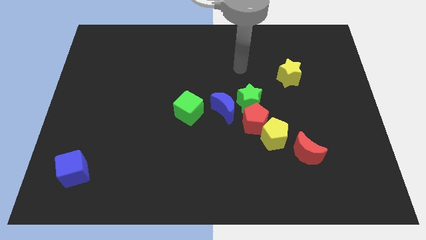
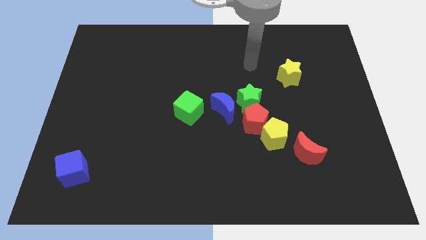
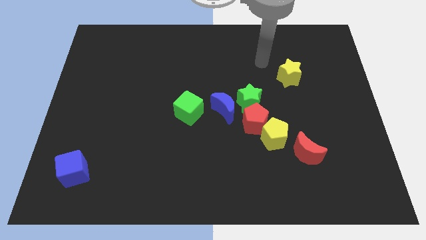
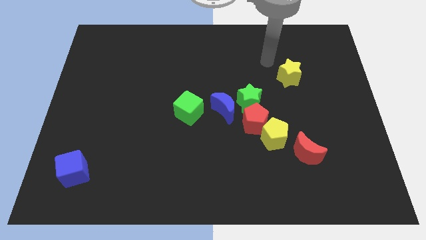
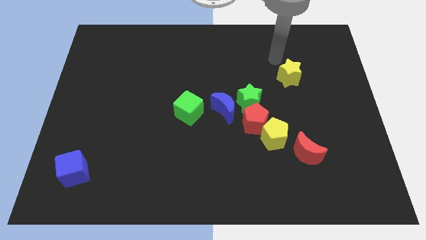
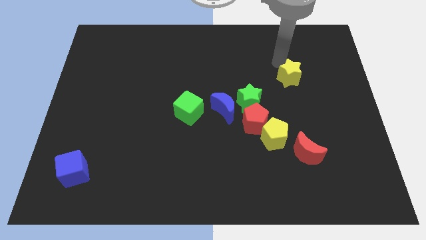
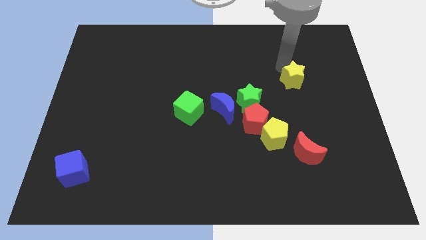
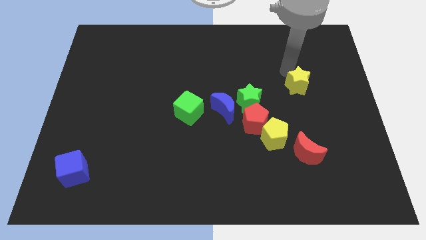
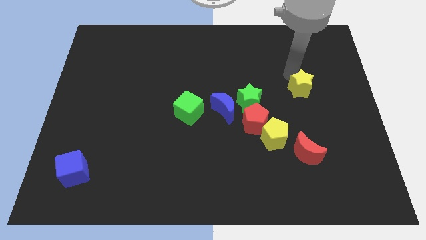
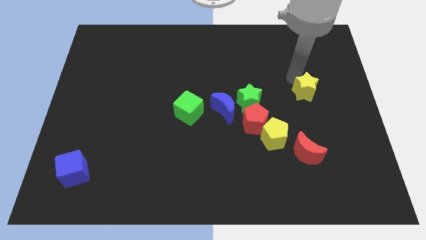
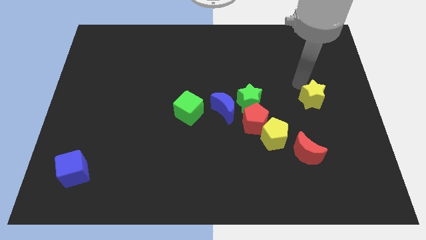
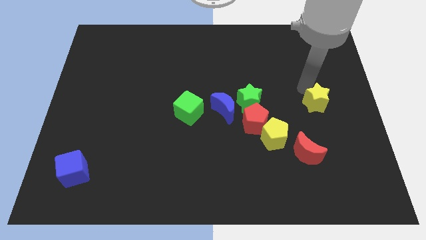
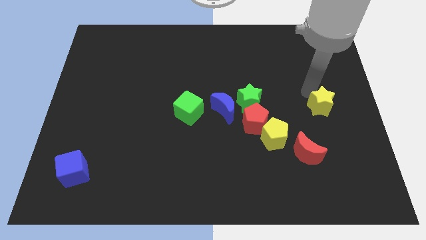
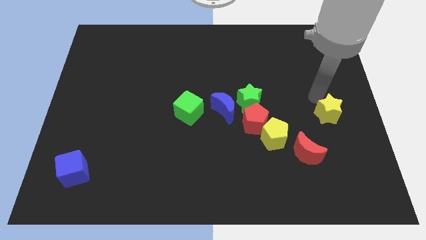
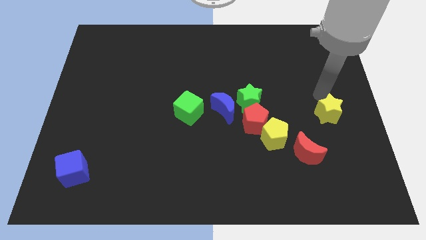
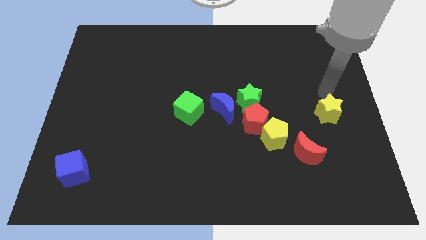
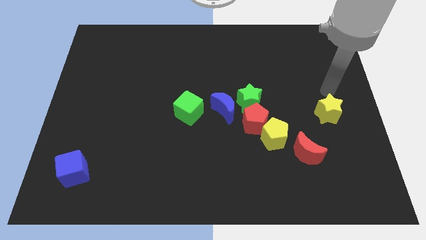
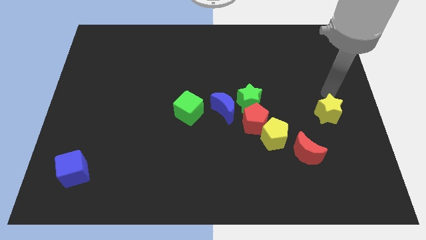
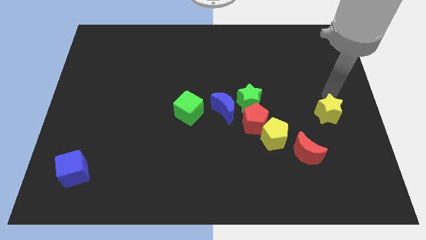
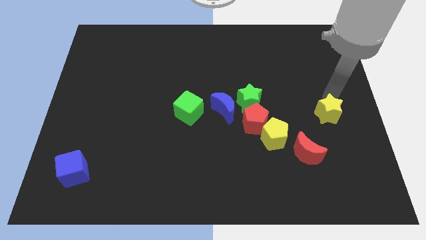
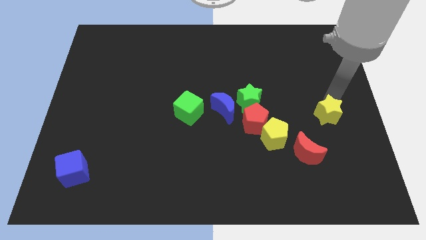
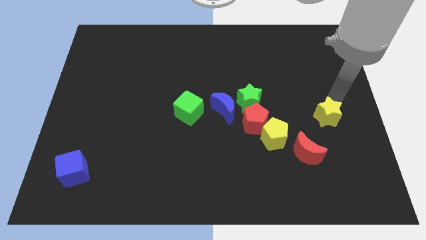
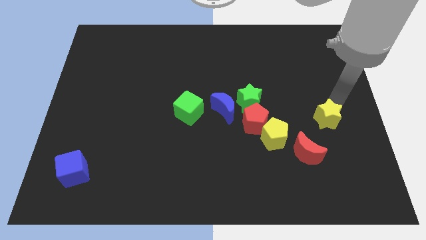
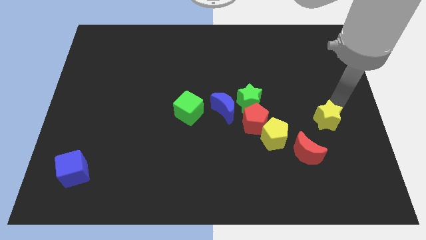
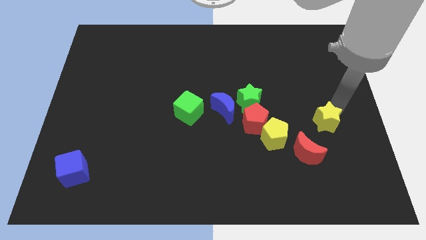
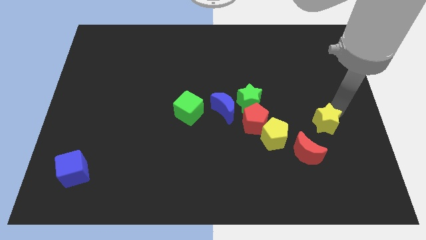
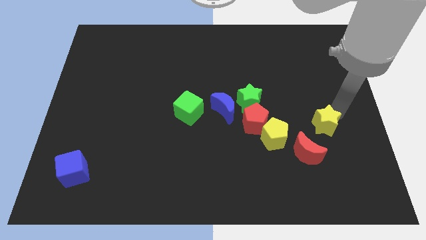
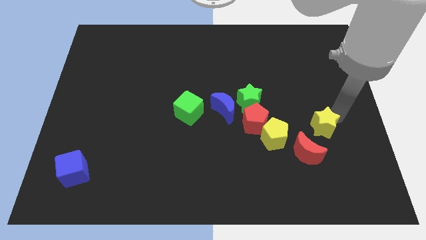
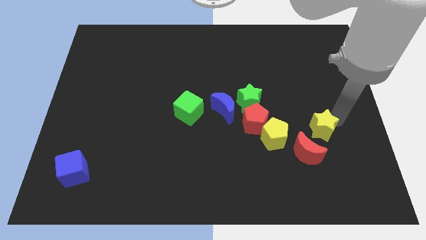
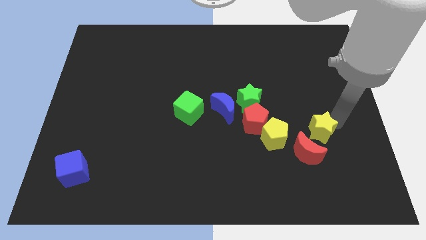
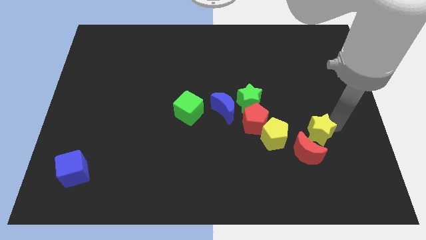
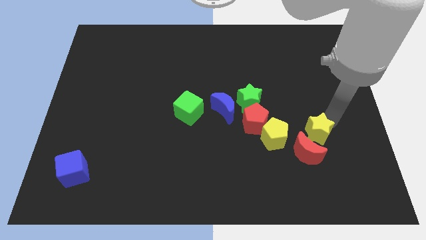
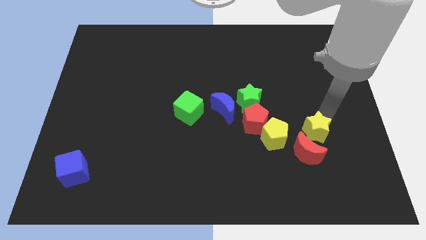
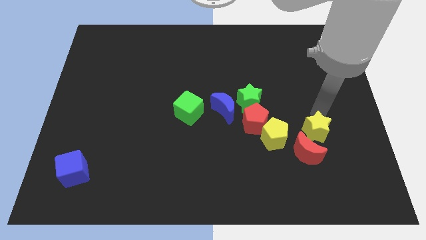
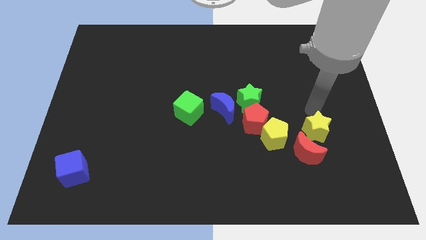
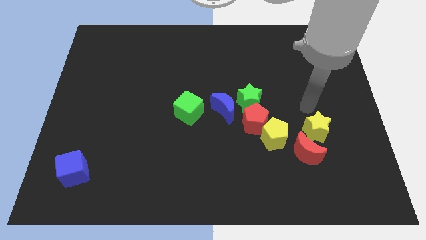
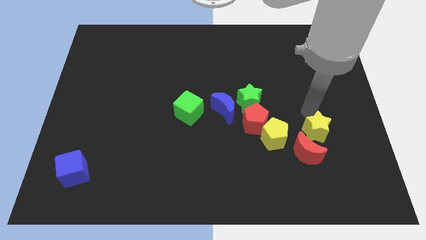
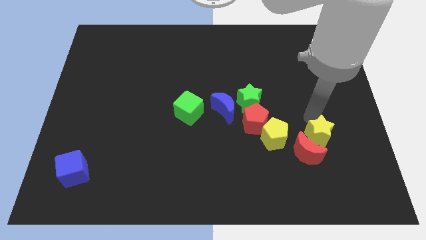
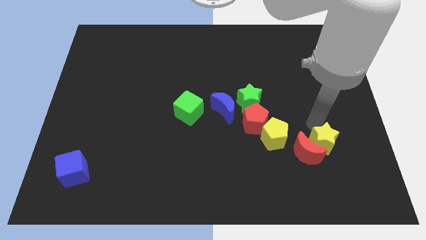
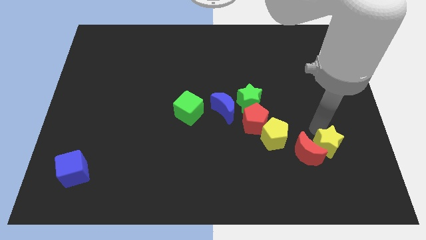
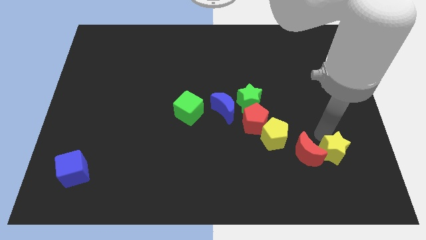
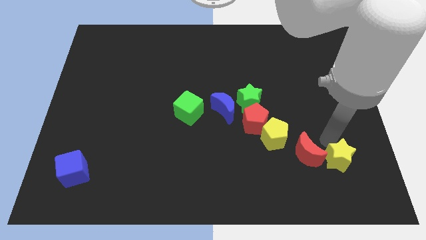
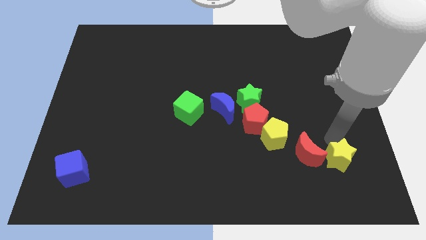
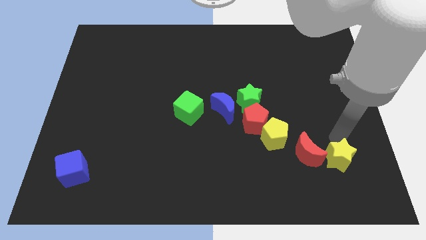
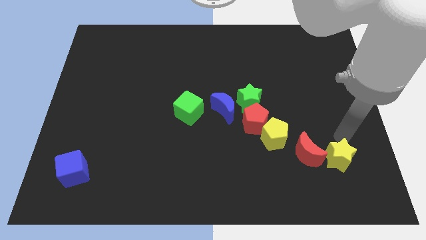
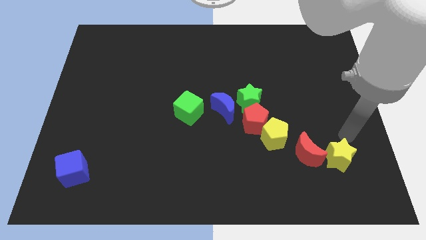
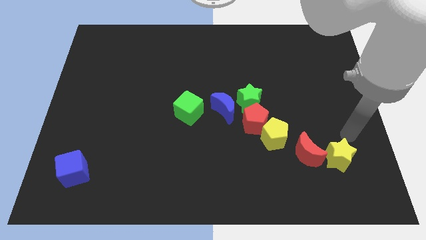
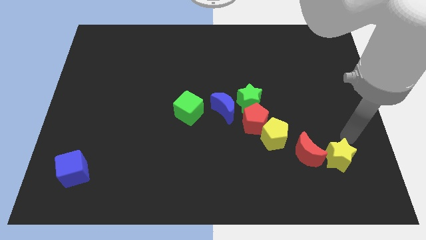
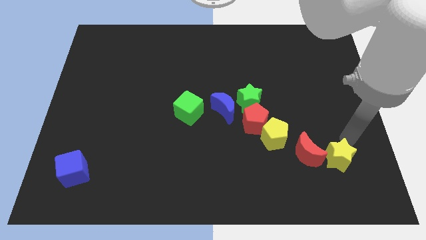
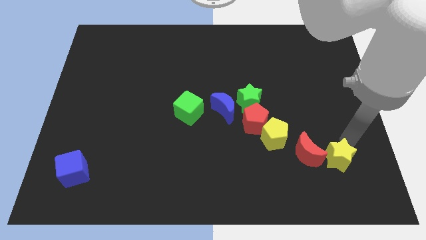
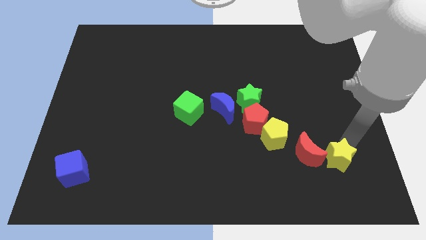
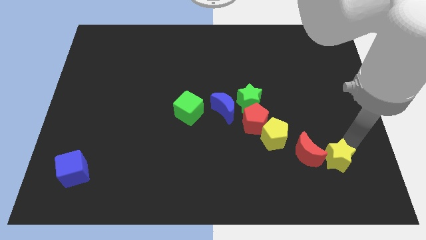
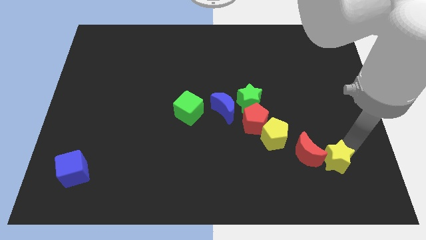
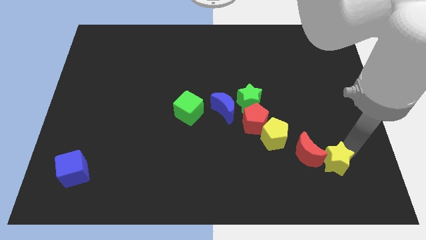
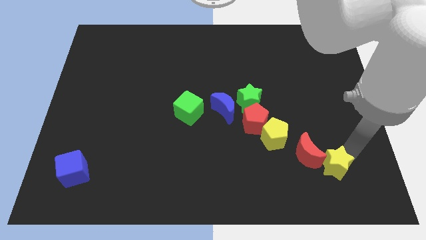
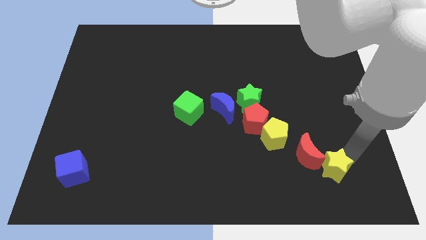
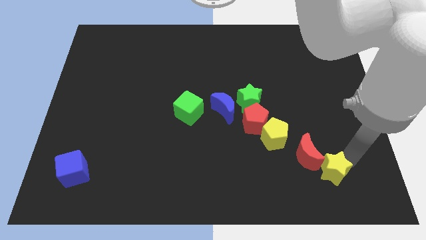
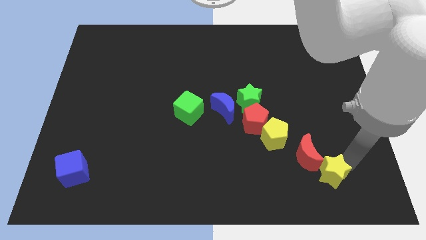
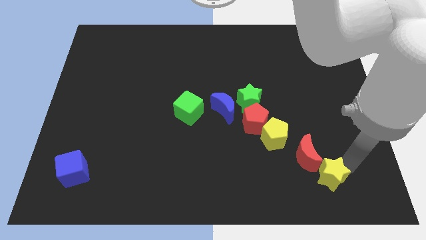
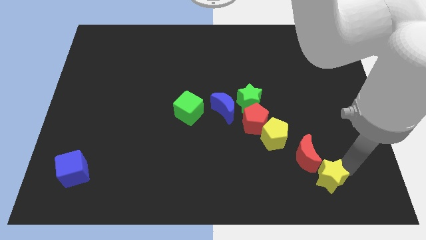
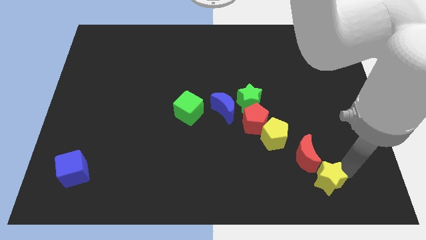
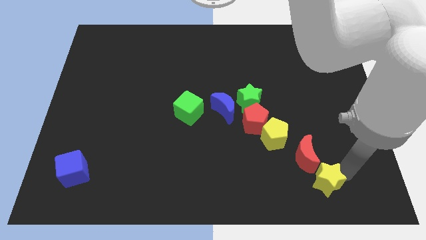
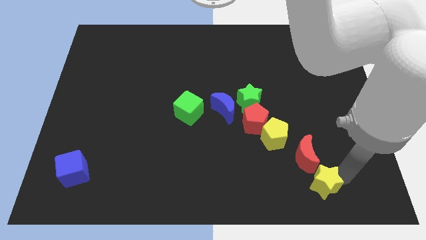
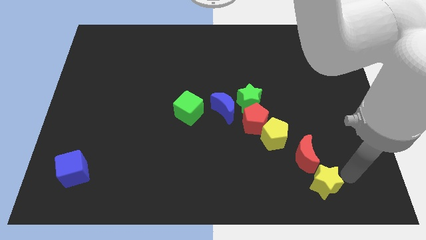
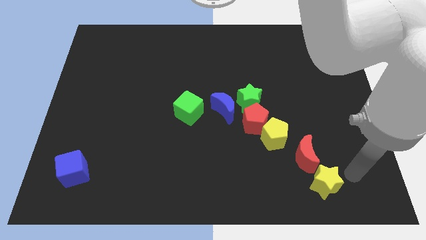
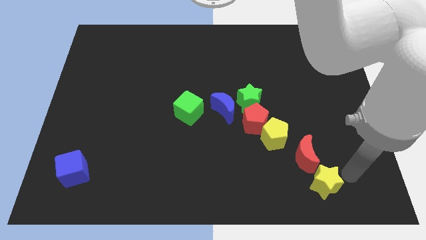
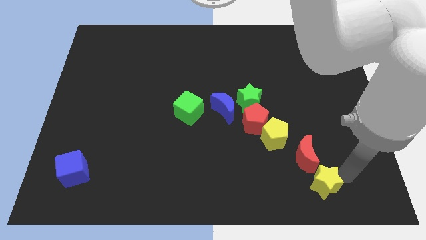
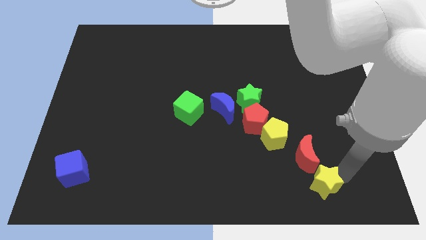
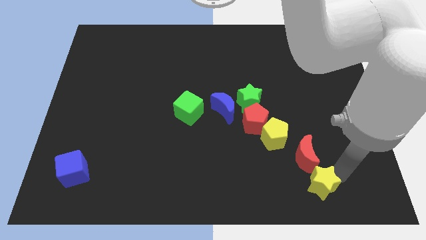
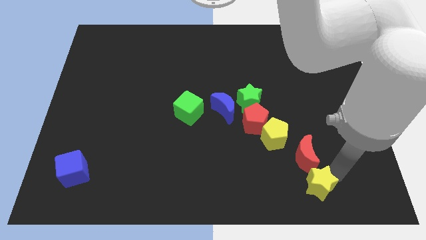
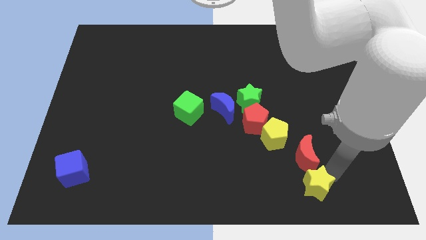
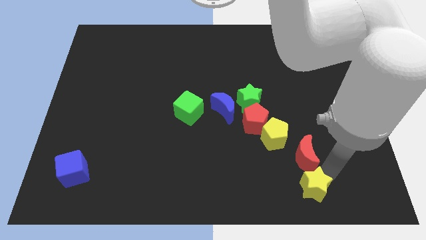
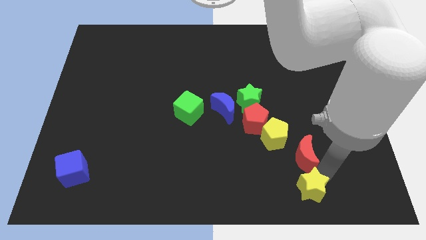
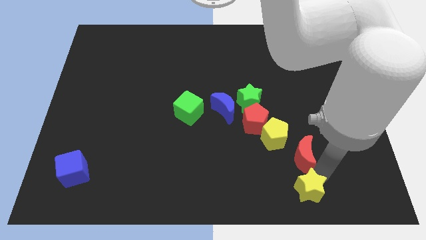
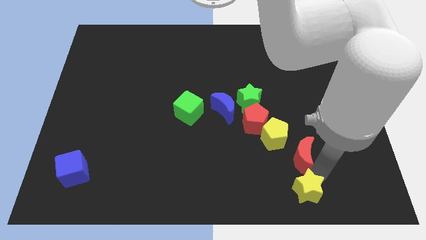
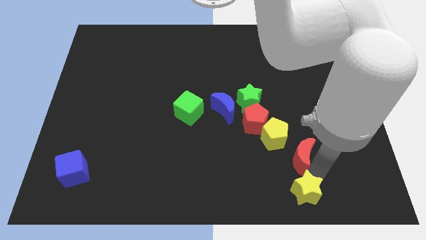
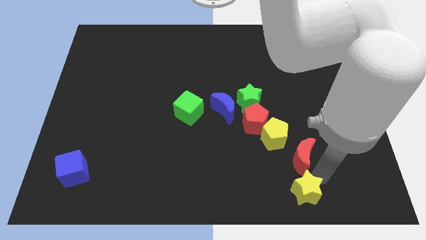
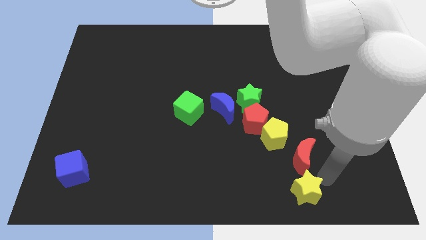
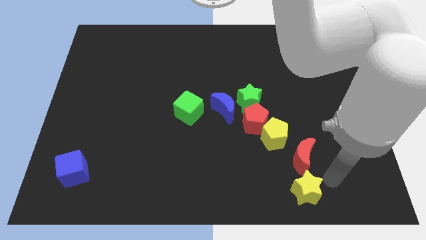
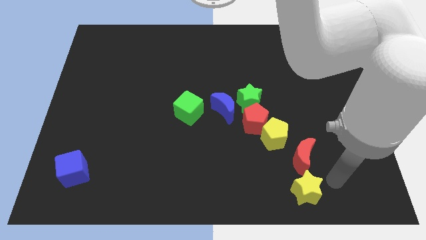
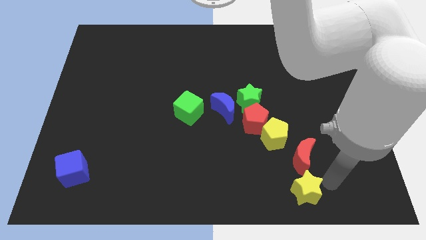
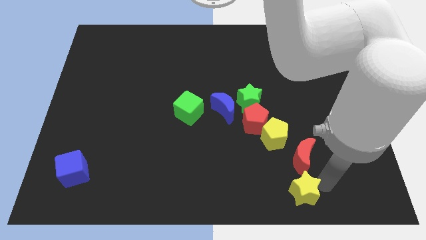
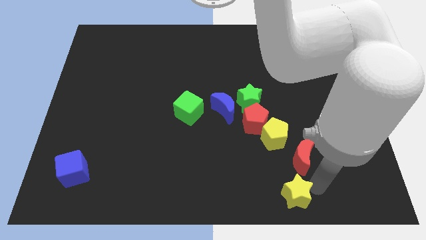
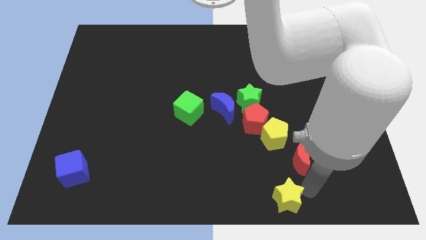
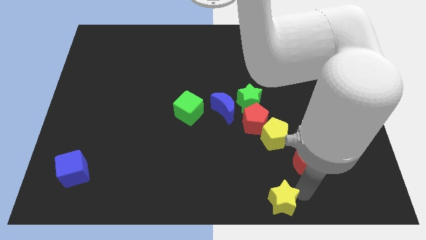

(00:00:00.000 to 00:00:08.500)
slide the yellow star to the bottom
